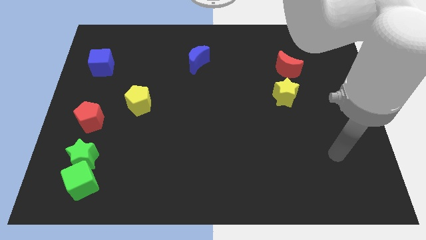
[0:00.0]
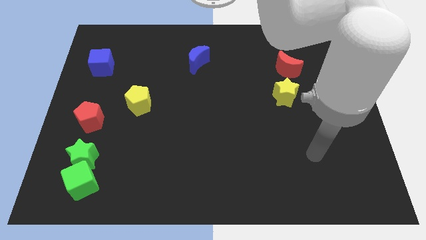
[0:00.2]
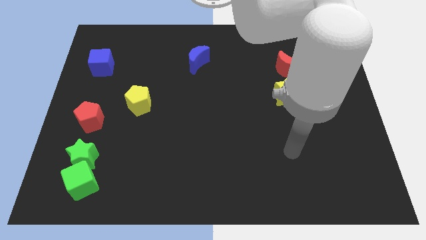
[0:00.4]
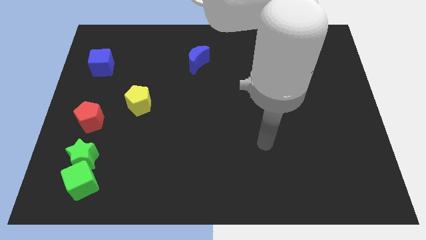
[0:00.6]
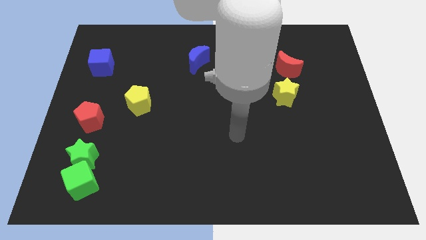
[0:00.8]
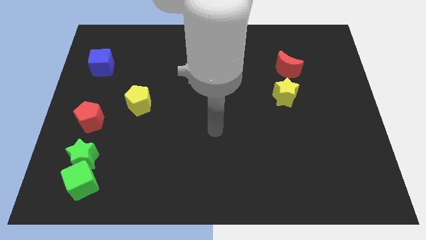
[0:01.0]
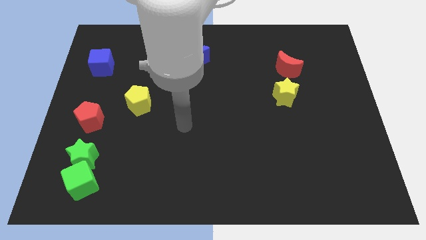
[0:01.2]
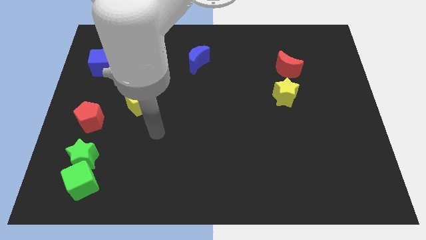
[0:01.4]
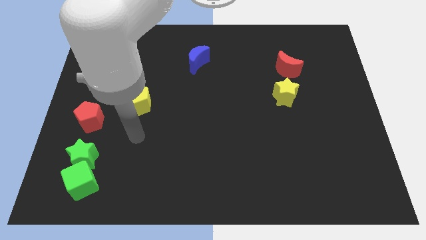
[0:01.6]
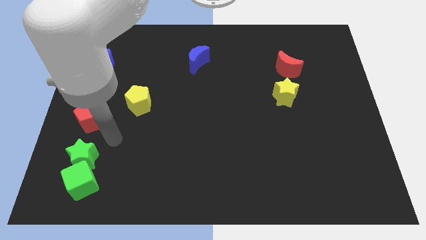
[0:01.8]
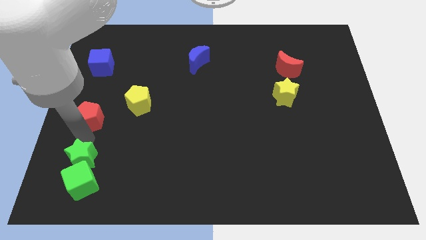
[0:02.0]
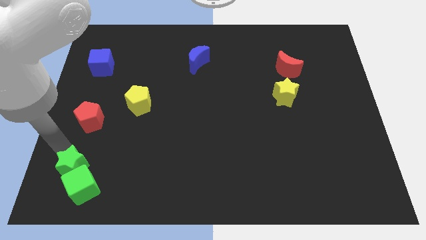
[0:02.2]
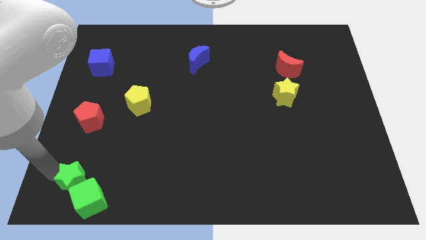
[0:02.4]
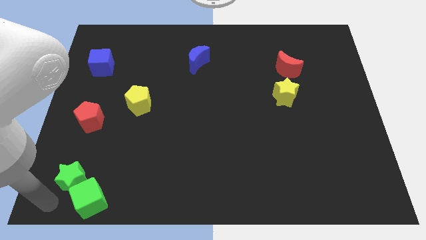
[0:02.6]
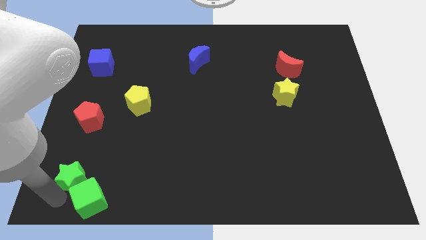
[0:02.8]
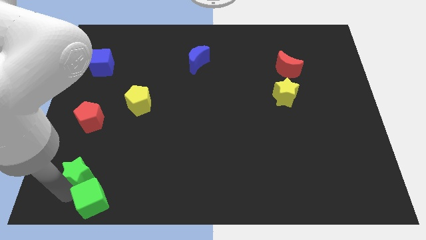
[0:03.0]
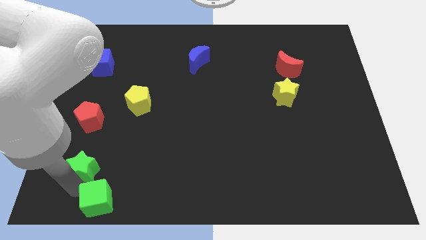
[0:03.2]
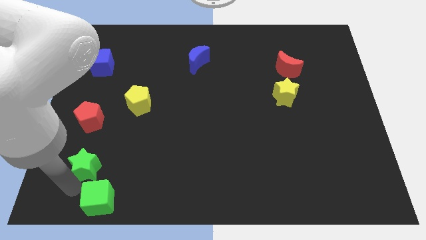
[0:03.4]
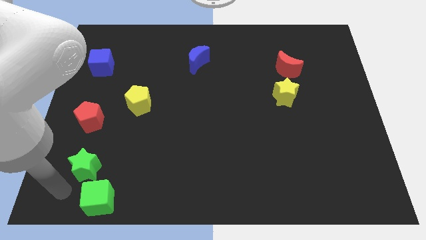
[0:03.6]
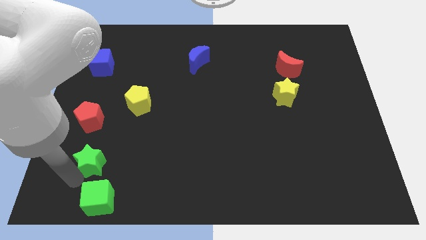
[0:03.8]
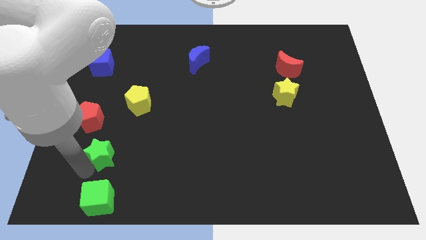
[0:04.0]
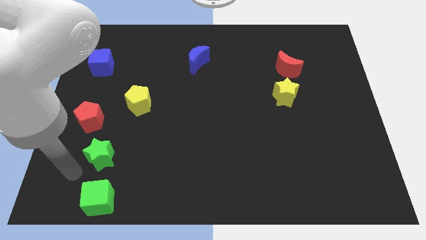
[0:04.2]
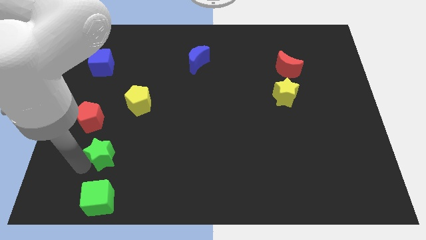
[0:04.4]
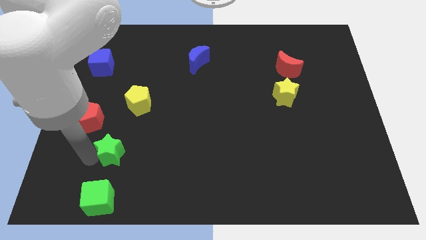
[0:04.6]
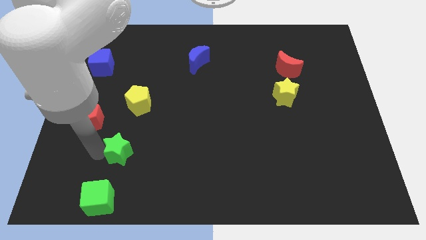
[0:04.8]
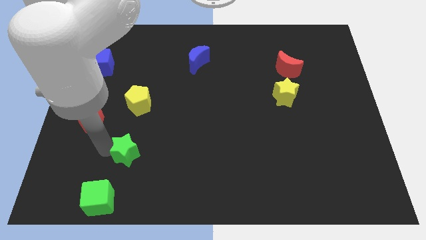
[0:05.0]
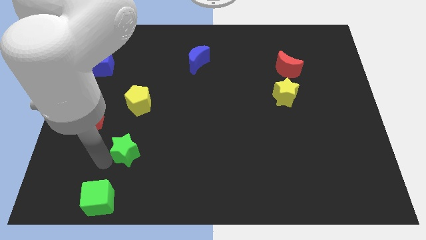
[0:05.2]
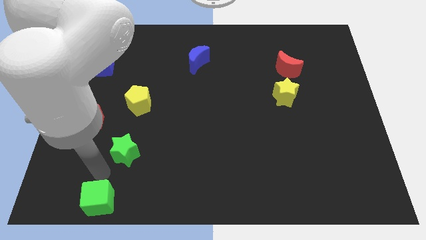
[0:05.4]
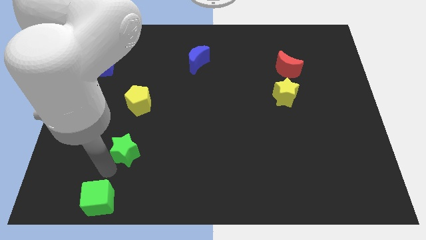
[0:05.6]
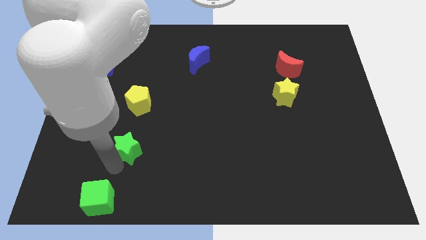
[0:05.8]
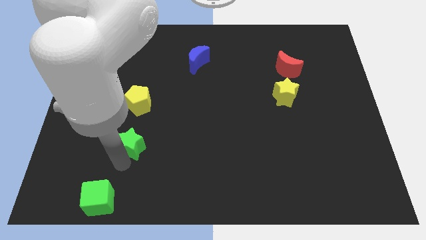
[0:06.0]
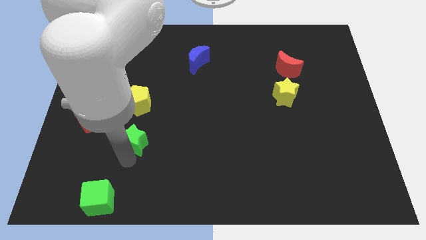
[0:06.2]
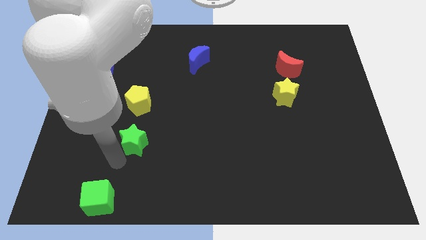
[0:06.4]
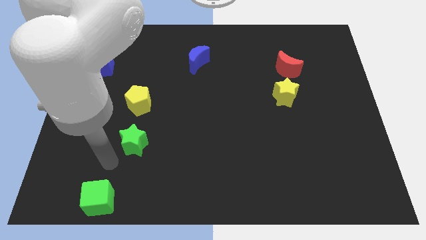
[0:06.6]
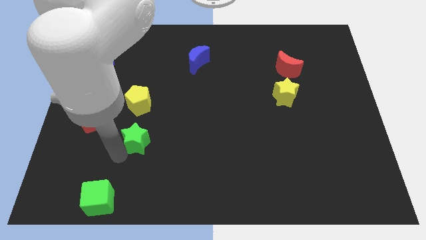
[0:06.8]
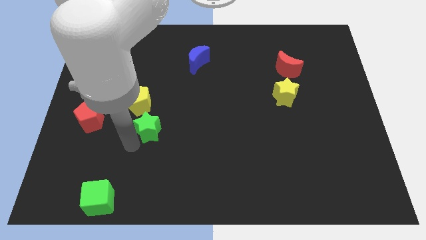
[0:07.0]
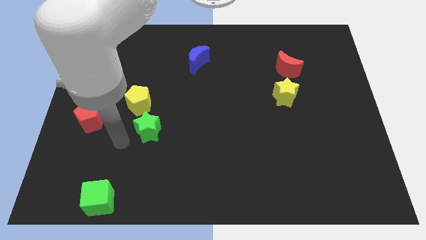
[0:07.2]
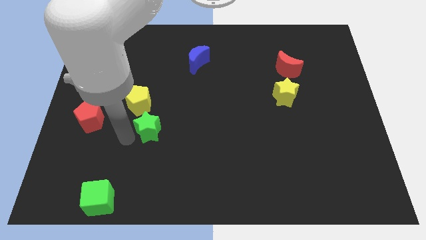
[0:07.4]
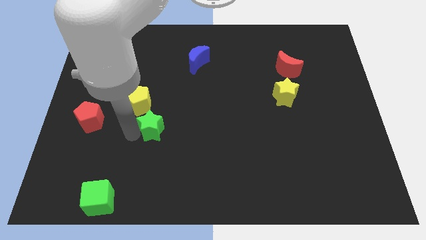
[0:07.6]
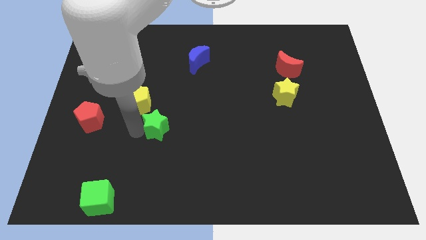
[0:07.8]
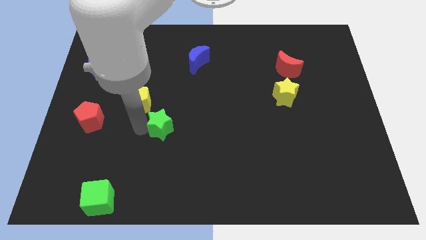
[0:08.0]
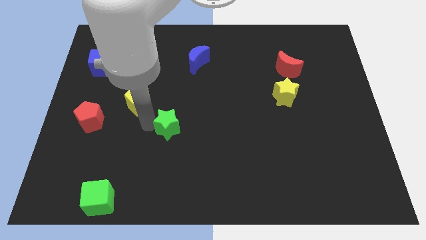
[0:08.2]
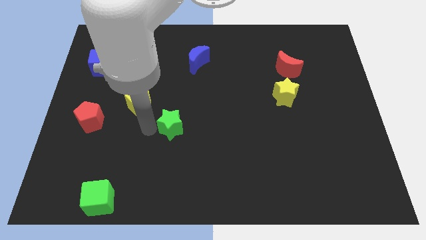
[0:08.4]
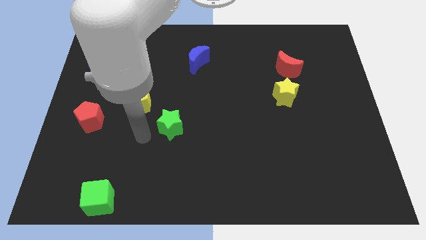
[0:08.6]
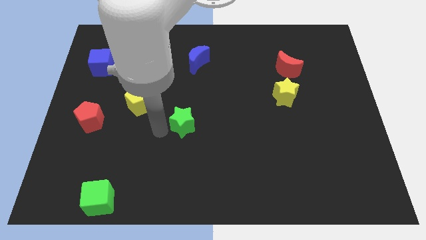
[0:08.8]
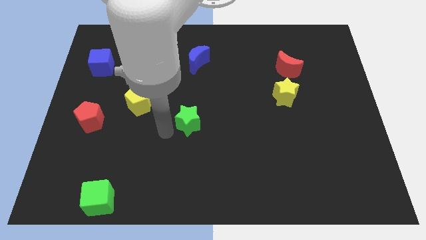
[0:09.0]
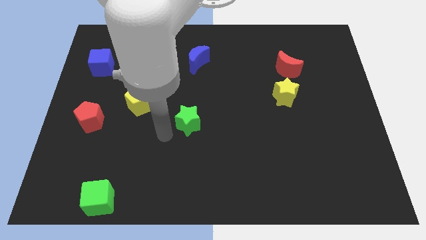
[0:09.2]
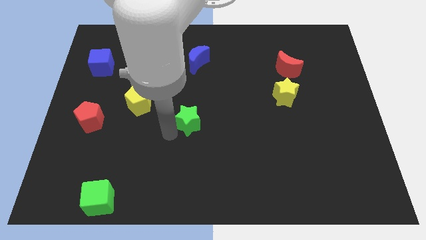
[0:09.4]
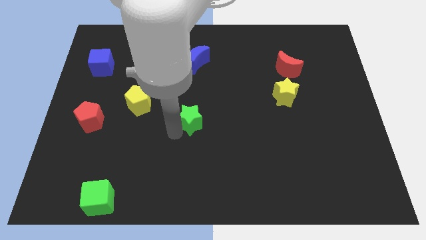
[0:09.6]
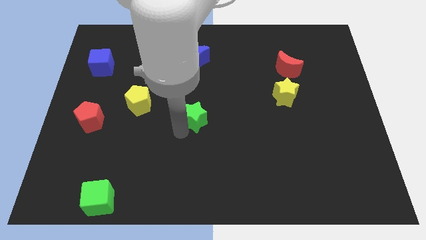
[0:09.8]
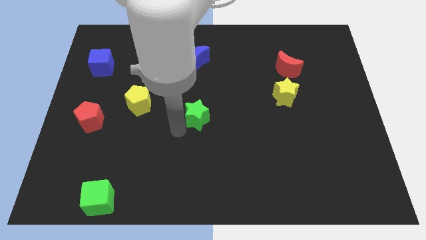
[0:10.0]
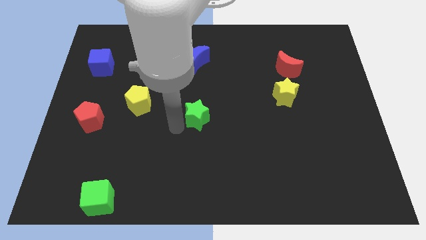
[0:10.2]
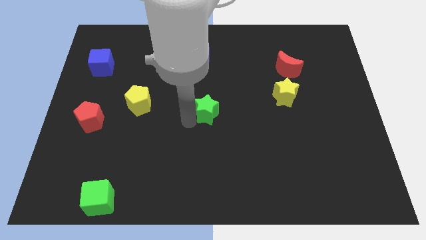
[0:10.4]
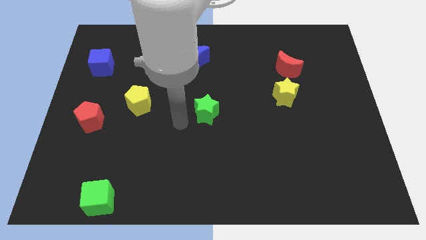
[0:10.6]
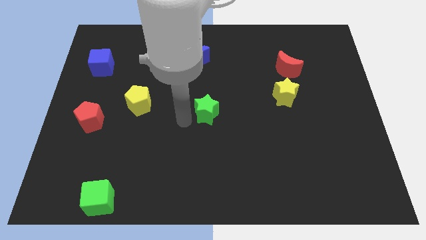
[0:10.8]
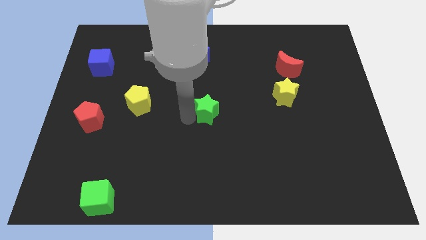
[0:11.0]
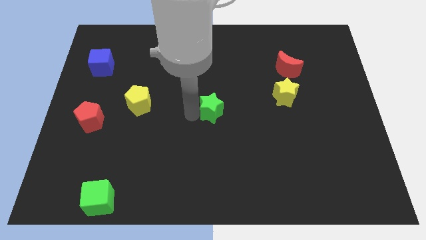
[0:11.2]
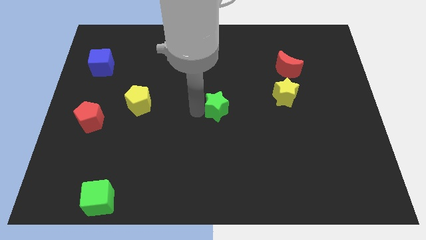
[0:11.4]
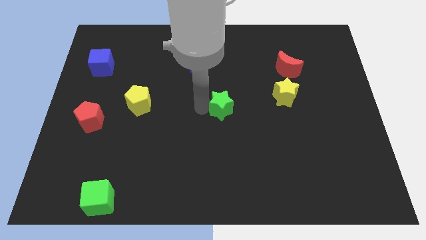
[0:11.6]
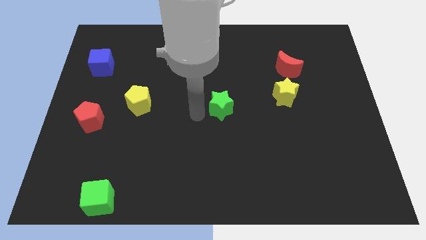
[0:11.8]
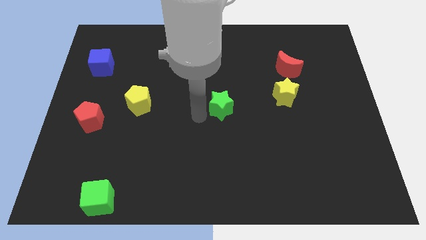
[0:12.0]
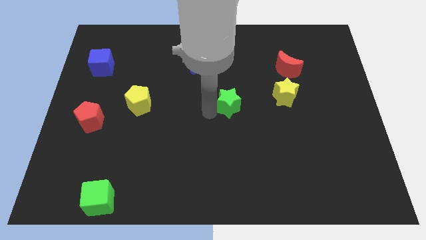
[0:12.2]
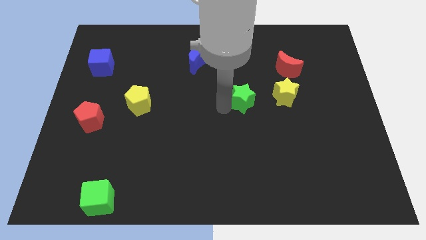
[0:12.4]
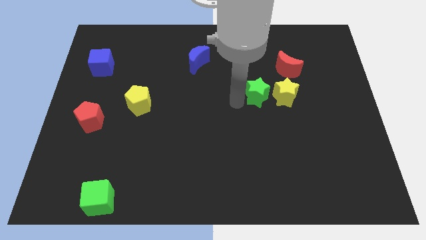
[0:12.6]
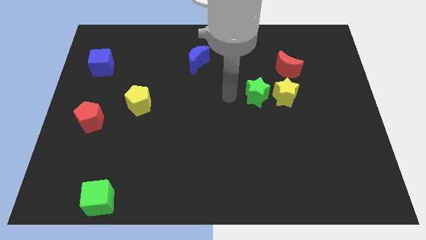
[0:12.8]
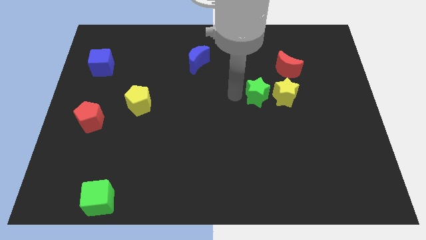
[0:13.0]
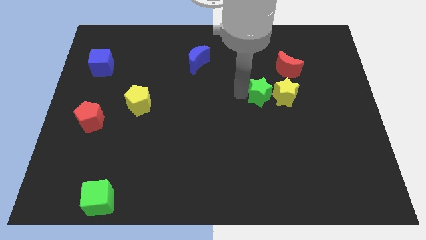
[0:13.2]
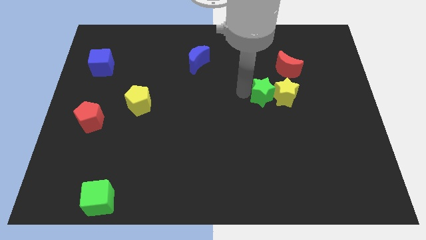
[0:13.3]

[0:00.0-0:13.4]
move the green star to the yellow star

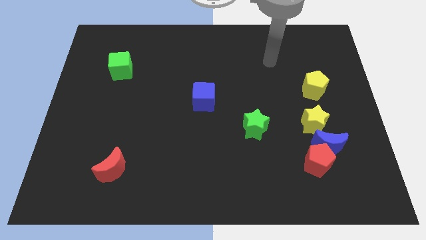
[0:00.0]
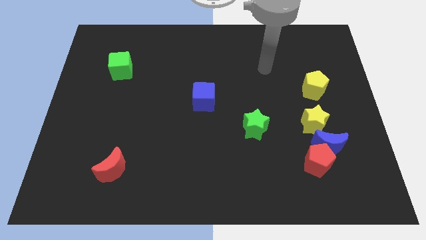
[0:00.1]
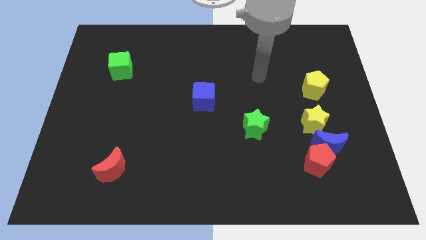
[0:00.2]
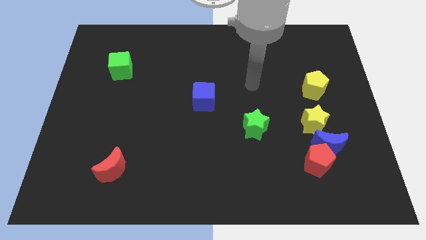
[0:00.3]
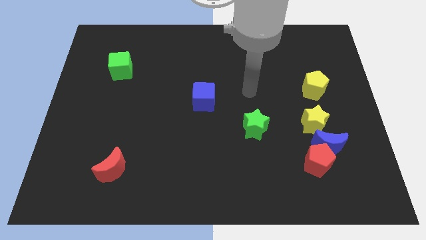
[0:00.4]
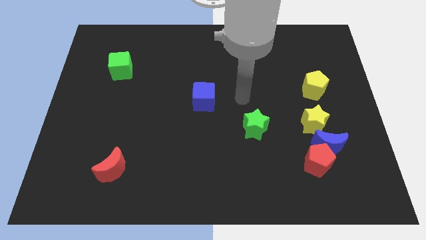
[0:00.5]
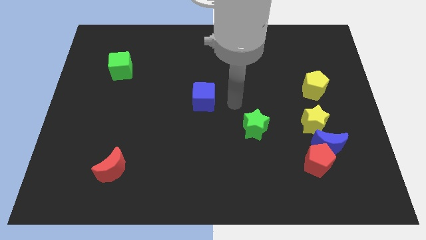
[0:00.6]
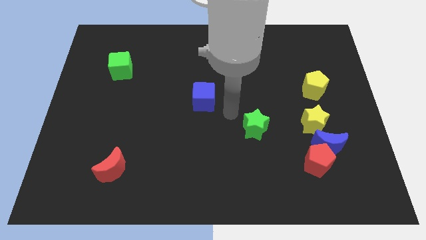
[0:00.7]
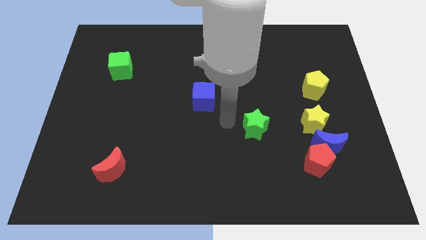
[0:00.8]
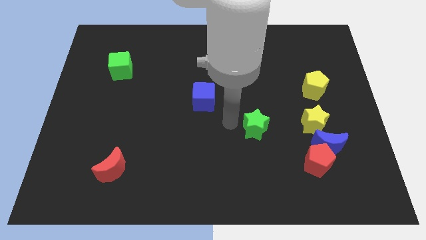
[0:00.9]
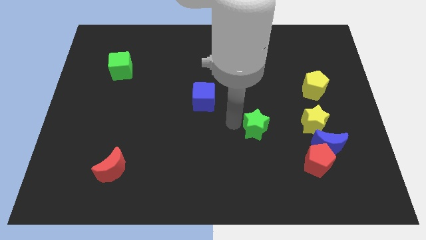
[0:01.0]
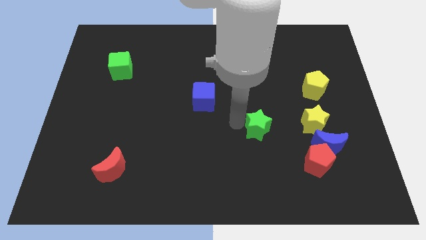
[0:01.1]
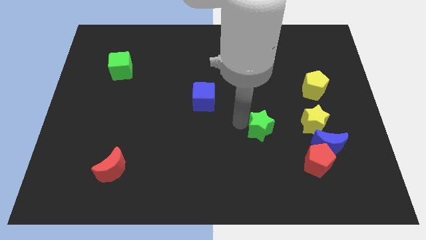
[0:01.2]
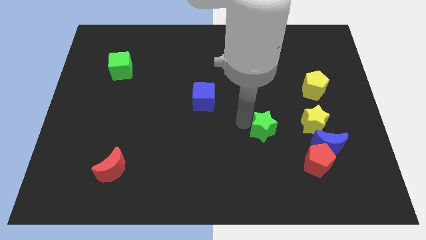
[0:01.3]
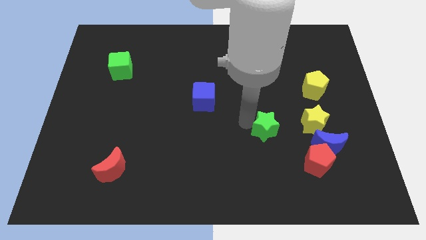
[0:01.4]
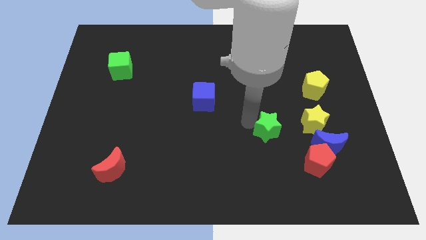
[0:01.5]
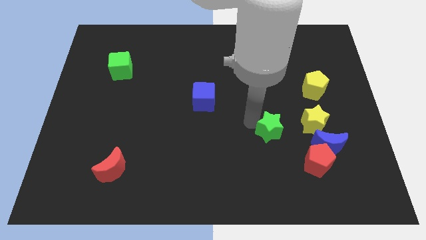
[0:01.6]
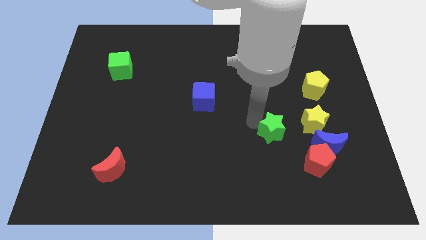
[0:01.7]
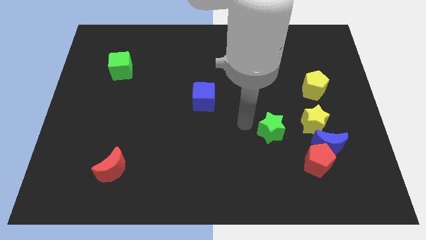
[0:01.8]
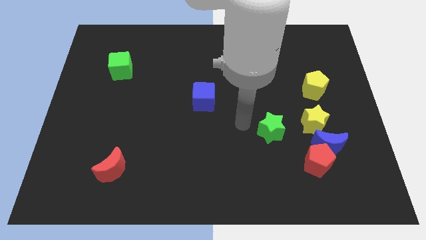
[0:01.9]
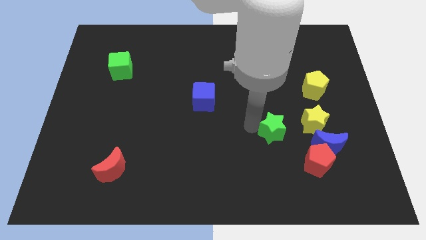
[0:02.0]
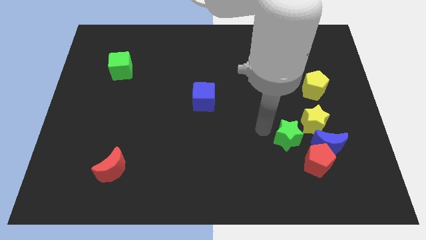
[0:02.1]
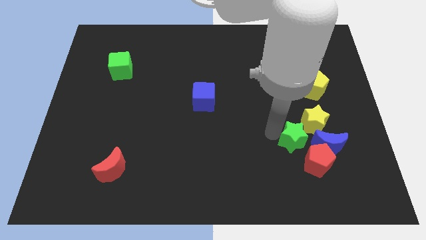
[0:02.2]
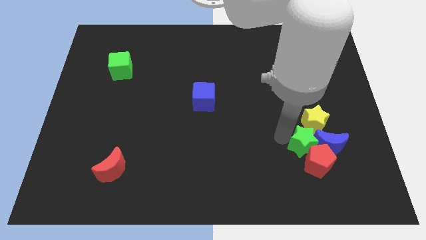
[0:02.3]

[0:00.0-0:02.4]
push the green star close to the blue moon
